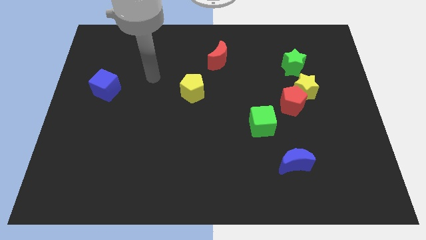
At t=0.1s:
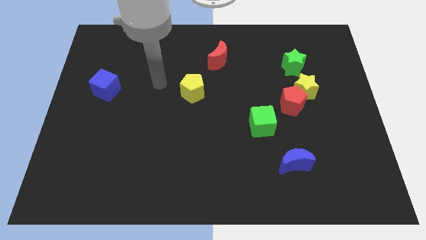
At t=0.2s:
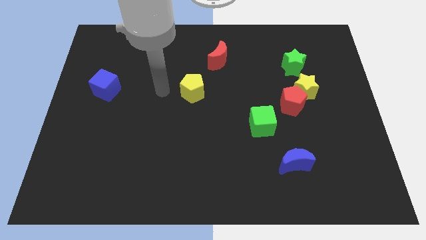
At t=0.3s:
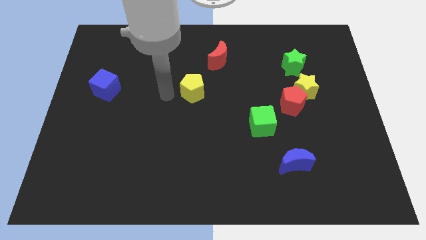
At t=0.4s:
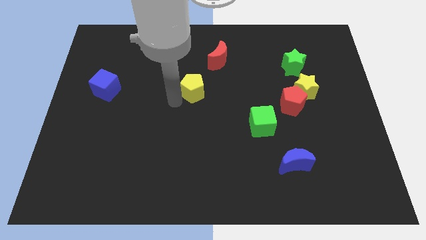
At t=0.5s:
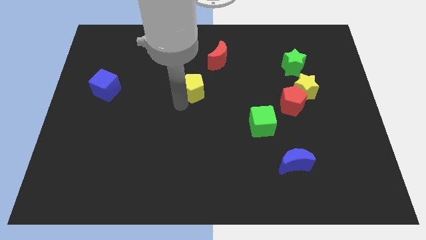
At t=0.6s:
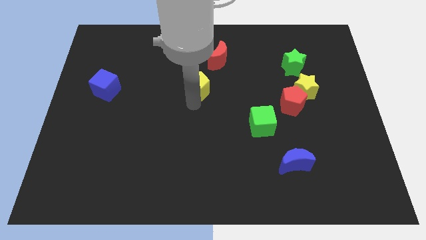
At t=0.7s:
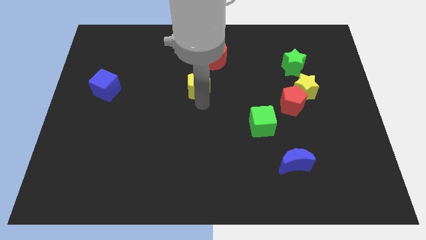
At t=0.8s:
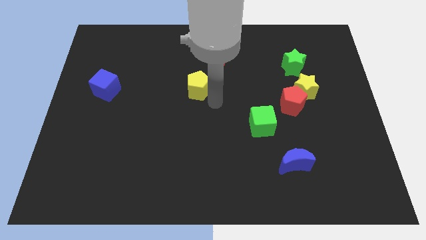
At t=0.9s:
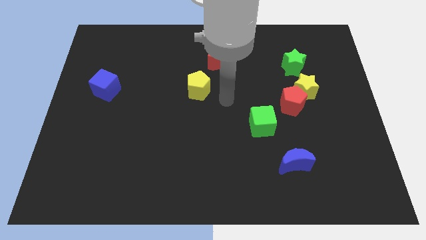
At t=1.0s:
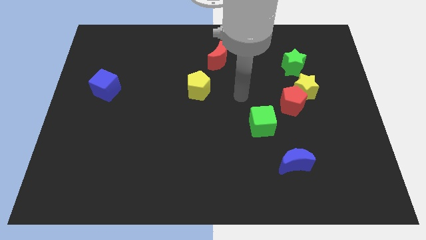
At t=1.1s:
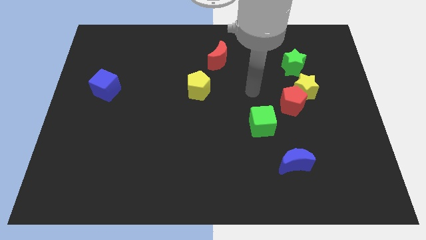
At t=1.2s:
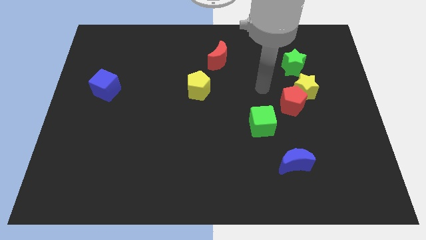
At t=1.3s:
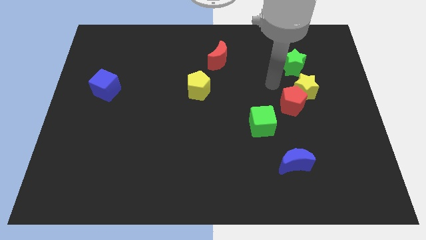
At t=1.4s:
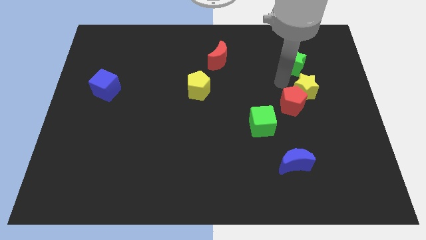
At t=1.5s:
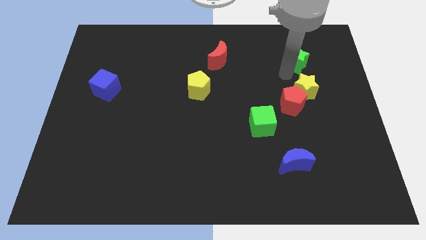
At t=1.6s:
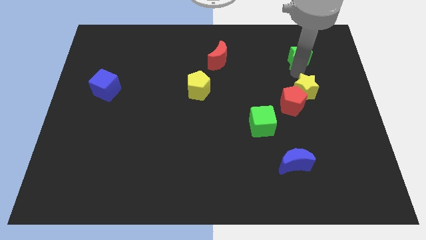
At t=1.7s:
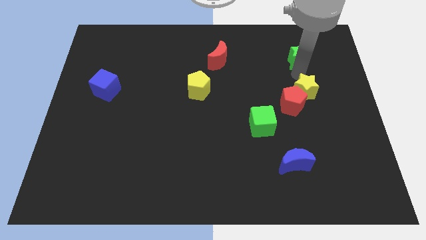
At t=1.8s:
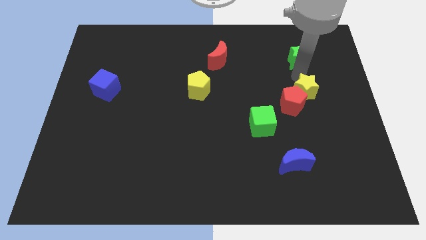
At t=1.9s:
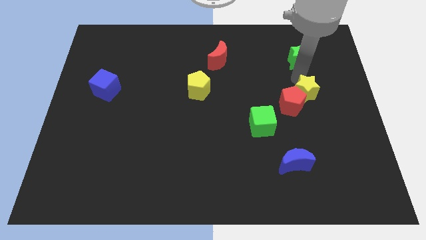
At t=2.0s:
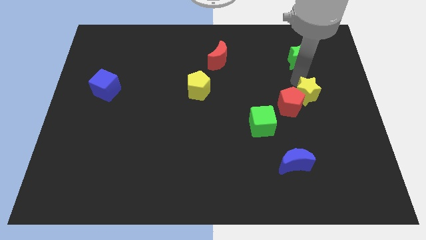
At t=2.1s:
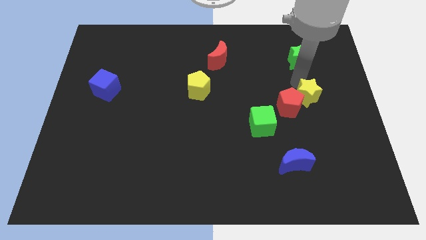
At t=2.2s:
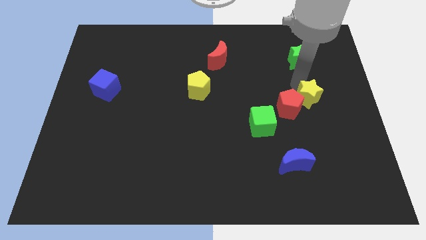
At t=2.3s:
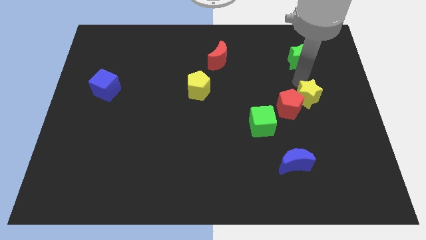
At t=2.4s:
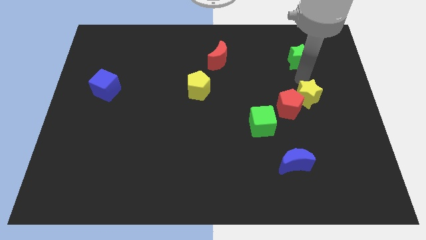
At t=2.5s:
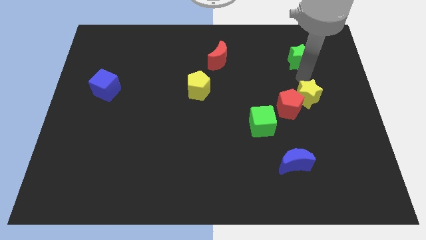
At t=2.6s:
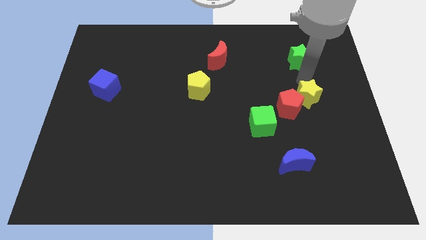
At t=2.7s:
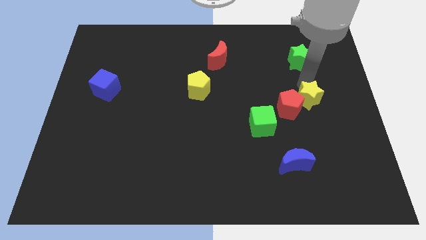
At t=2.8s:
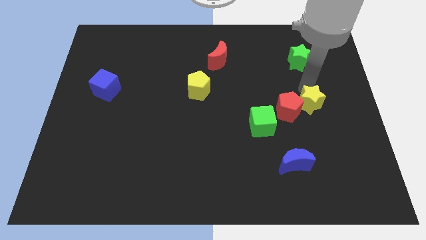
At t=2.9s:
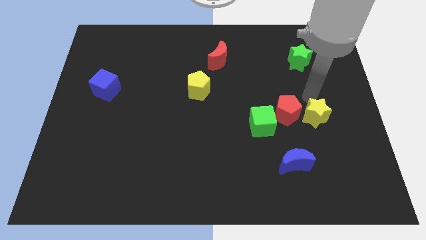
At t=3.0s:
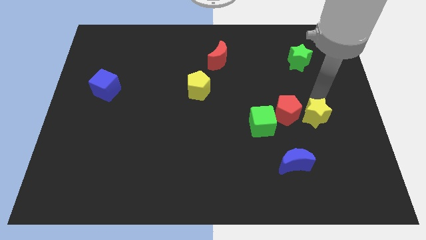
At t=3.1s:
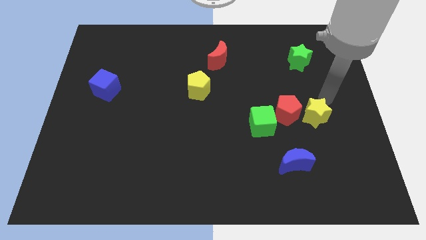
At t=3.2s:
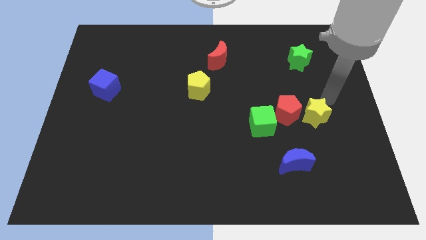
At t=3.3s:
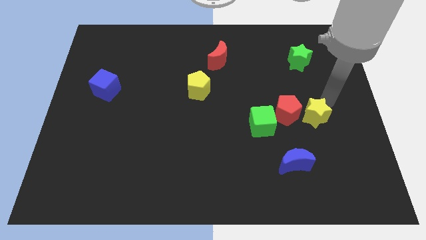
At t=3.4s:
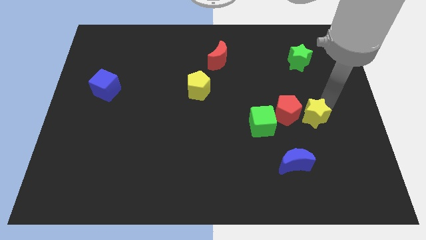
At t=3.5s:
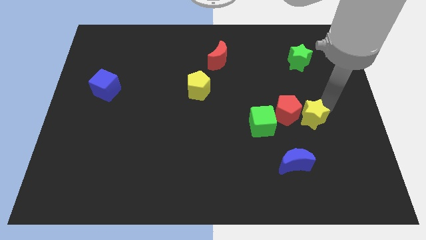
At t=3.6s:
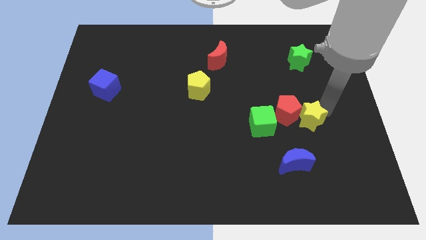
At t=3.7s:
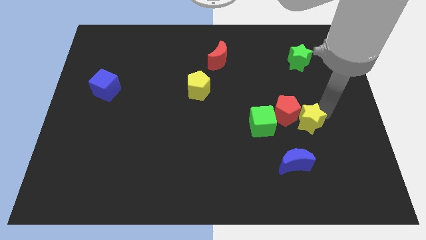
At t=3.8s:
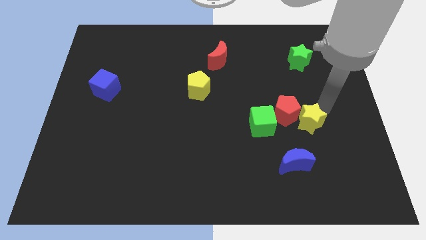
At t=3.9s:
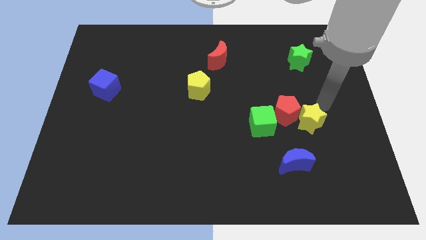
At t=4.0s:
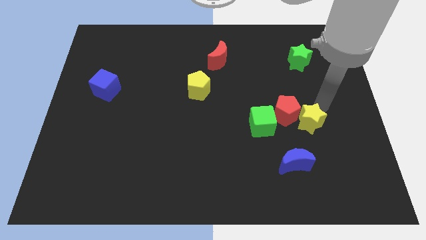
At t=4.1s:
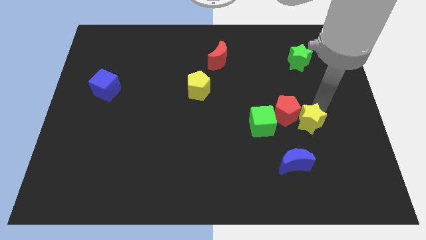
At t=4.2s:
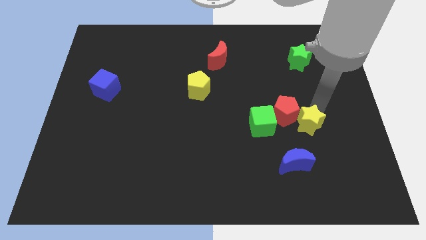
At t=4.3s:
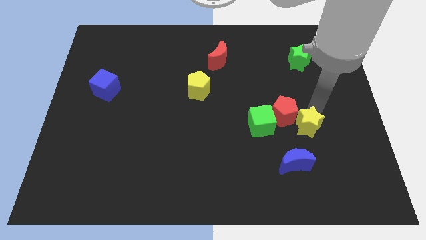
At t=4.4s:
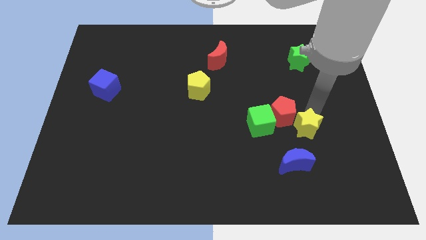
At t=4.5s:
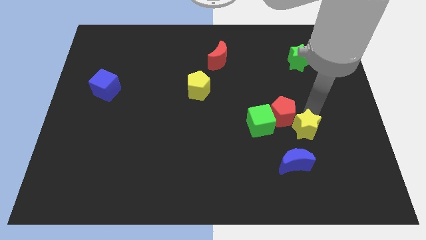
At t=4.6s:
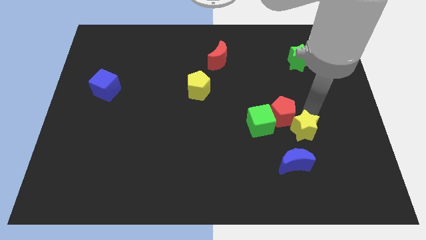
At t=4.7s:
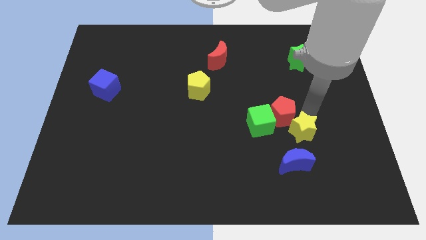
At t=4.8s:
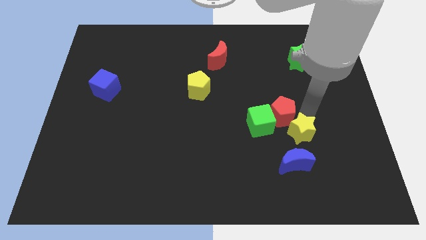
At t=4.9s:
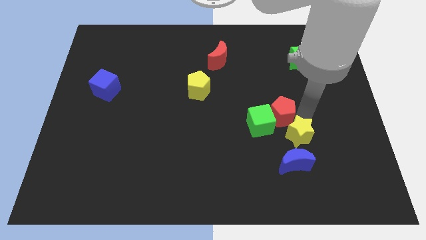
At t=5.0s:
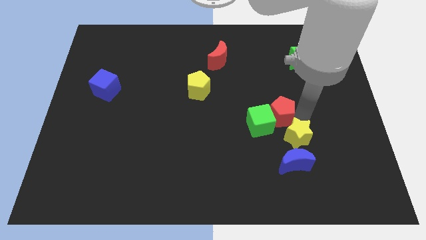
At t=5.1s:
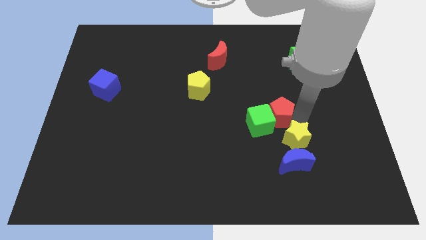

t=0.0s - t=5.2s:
slide the yellow star to the blue moon
